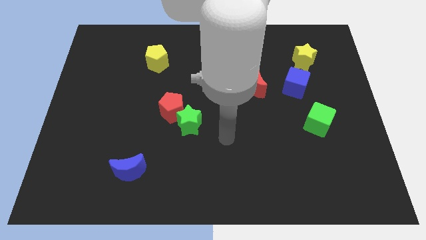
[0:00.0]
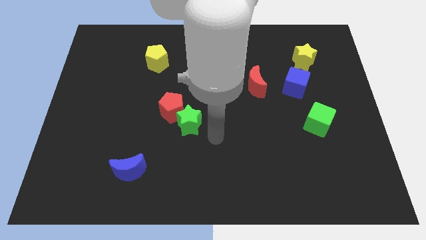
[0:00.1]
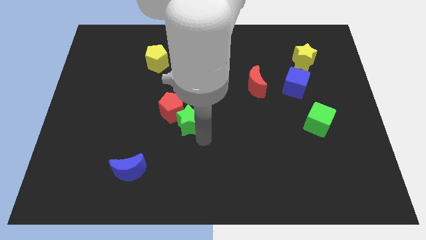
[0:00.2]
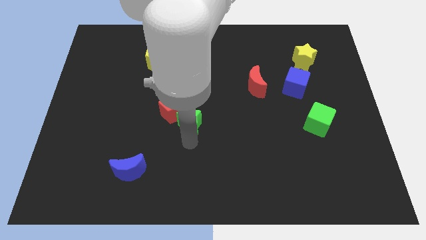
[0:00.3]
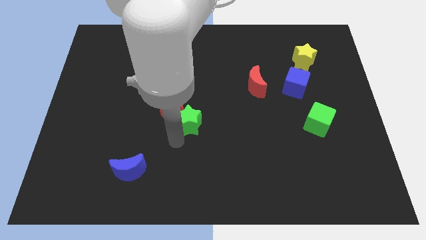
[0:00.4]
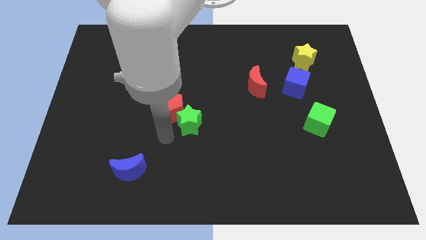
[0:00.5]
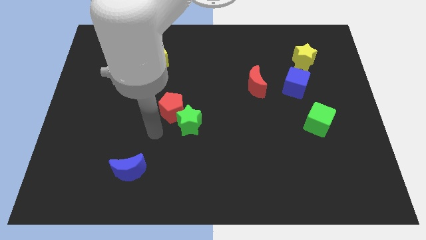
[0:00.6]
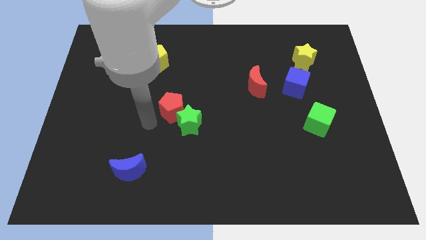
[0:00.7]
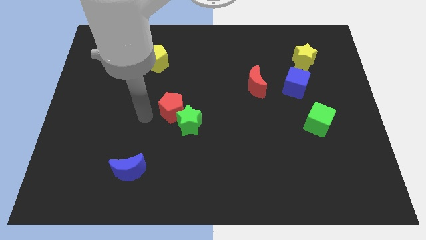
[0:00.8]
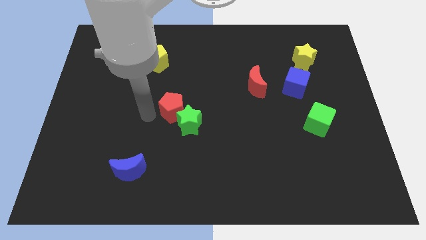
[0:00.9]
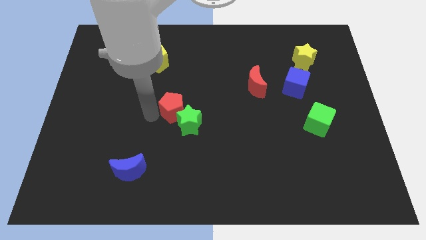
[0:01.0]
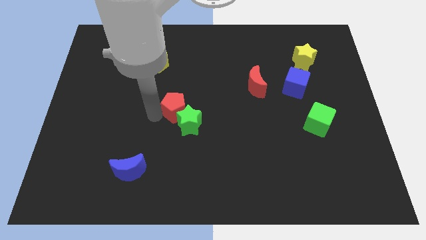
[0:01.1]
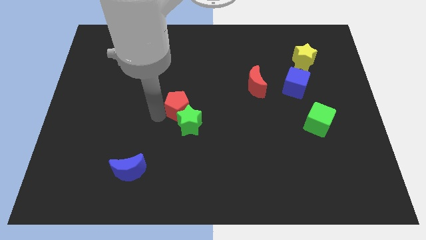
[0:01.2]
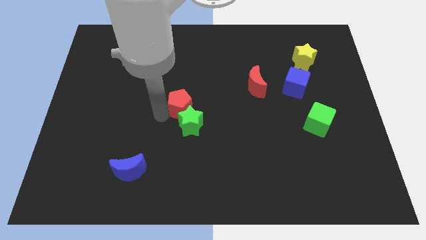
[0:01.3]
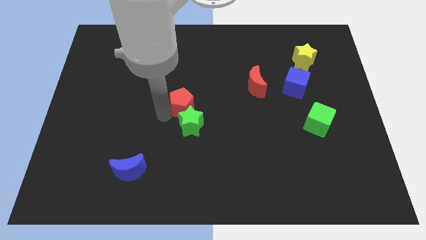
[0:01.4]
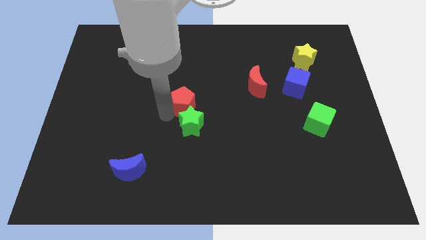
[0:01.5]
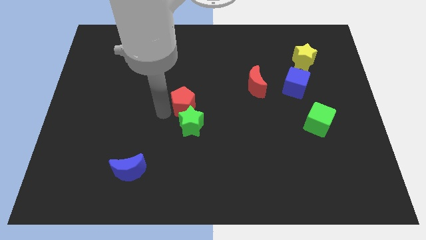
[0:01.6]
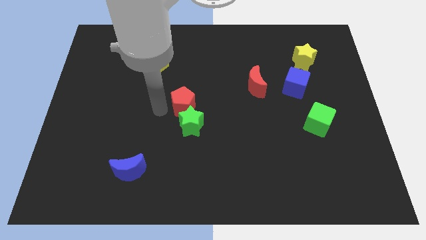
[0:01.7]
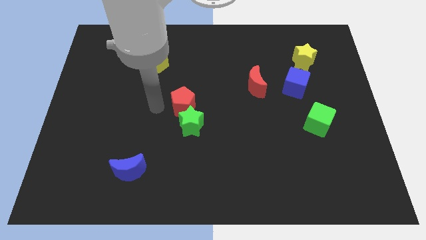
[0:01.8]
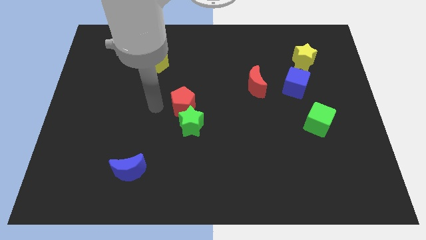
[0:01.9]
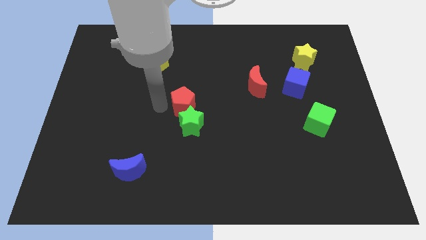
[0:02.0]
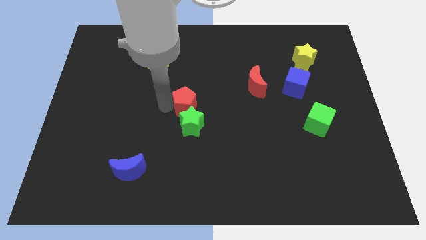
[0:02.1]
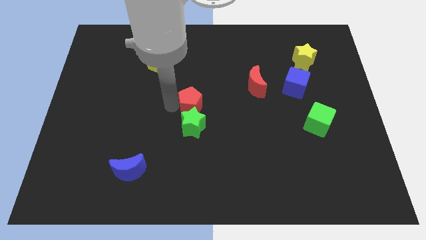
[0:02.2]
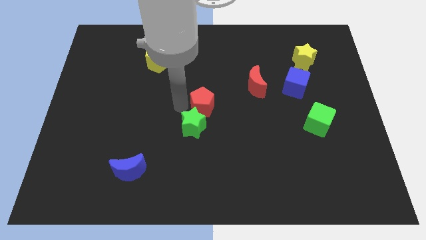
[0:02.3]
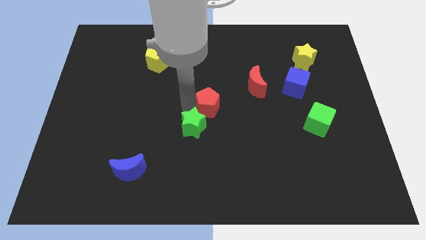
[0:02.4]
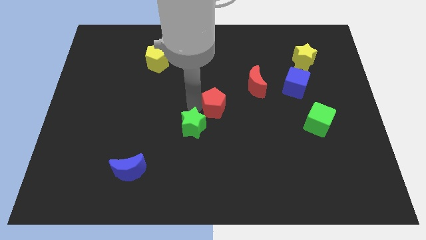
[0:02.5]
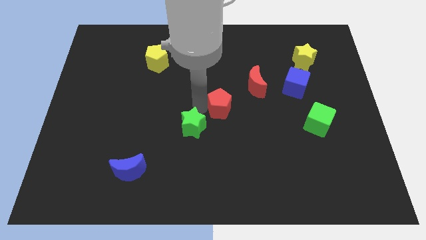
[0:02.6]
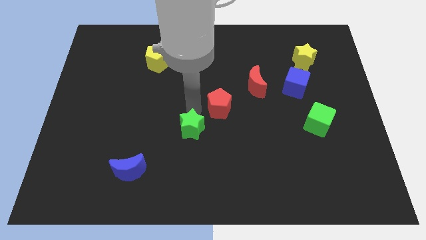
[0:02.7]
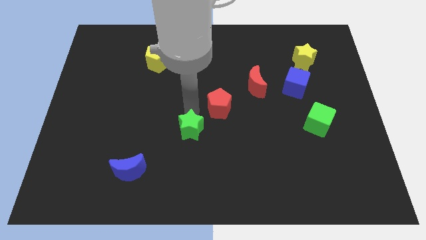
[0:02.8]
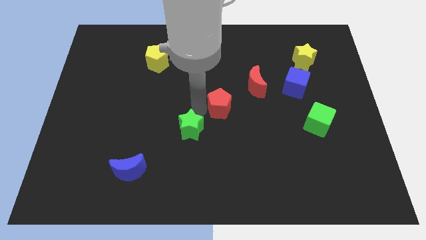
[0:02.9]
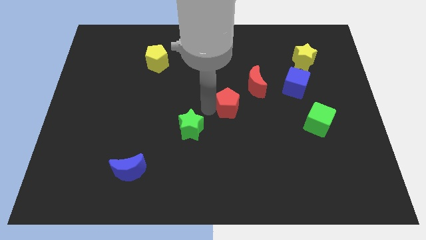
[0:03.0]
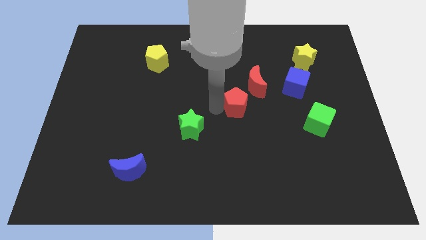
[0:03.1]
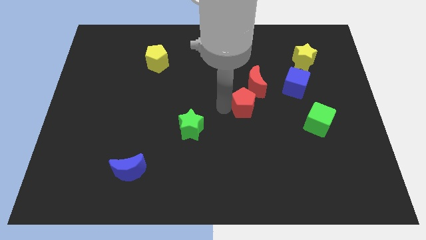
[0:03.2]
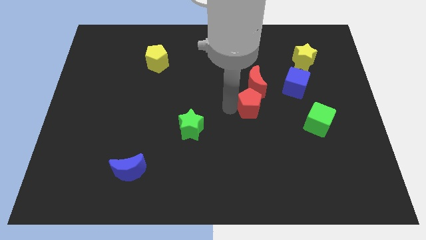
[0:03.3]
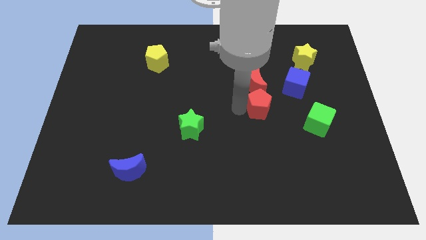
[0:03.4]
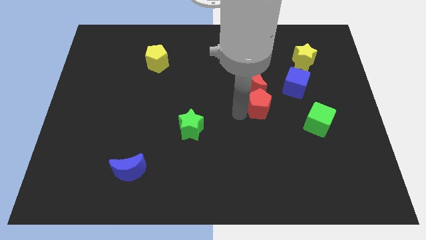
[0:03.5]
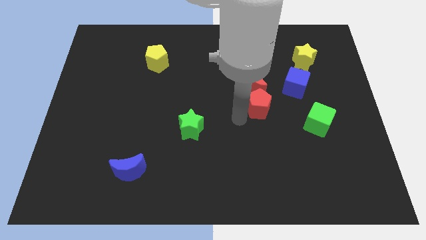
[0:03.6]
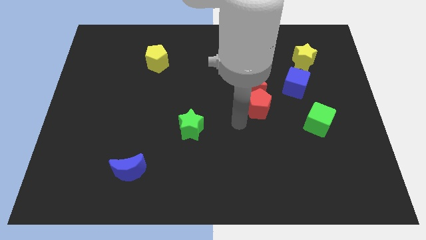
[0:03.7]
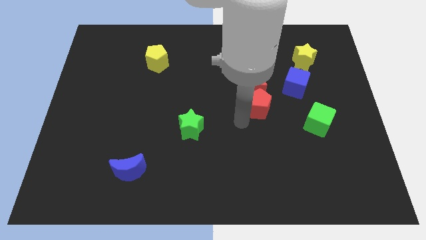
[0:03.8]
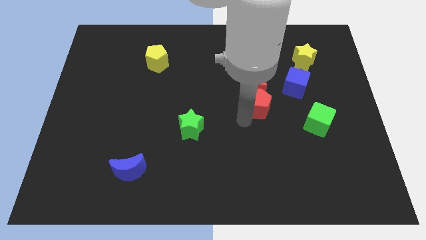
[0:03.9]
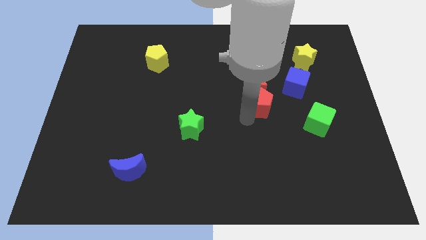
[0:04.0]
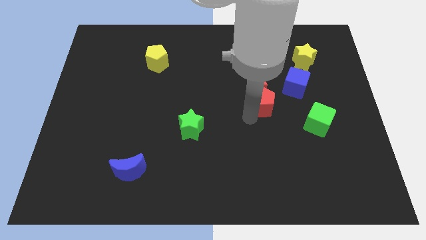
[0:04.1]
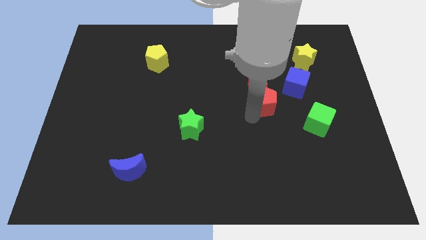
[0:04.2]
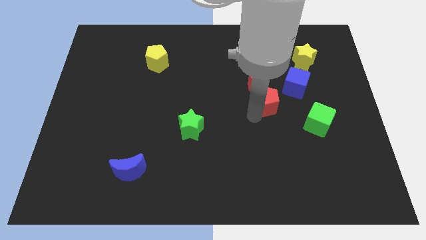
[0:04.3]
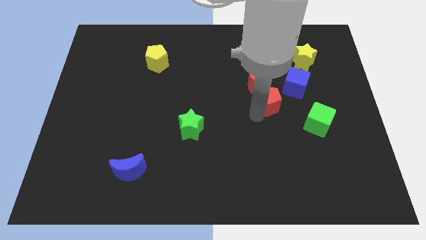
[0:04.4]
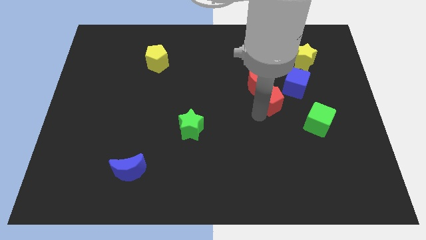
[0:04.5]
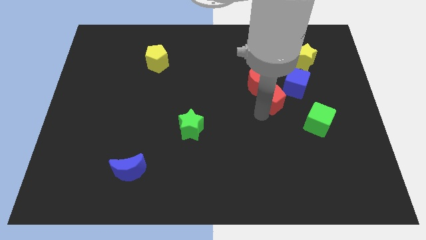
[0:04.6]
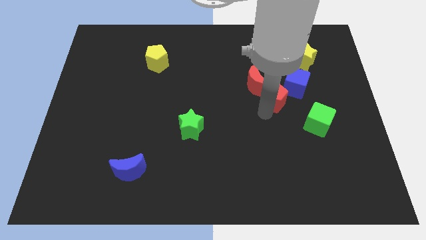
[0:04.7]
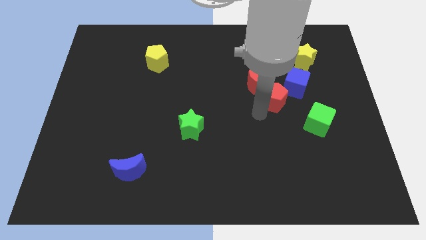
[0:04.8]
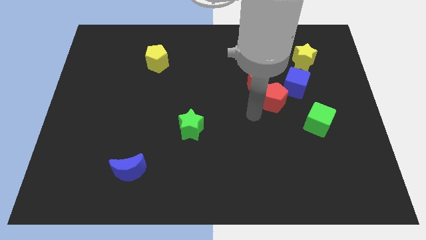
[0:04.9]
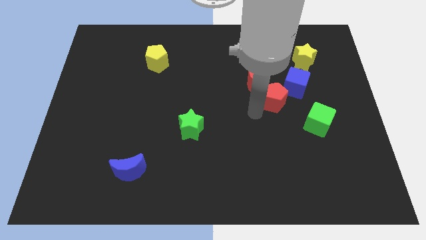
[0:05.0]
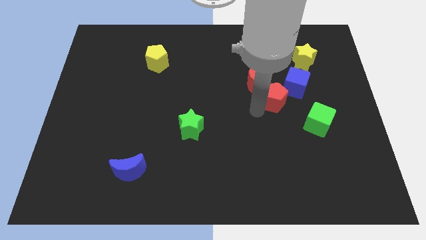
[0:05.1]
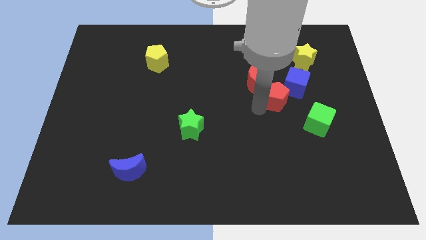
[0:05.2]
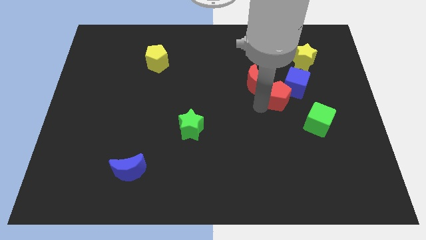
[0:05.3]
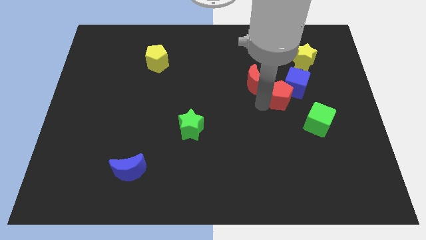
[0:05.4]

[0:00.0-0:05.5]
move the red pentagon close to the blue cube

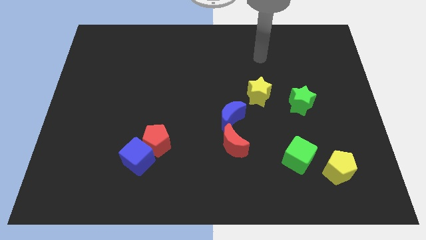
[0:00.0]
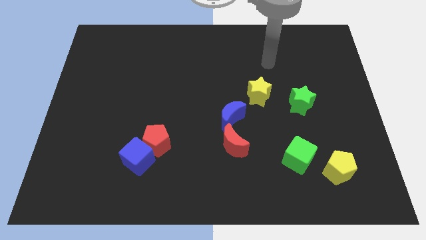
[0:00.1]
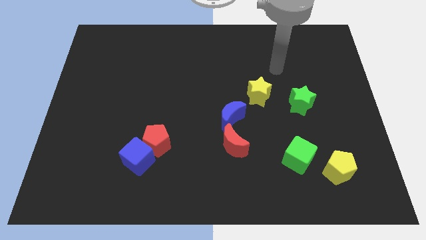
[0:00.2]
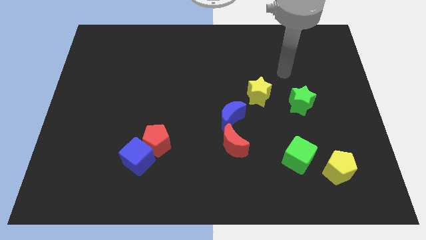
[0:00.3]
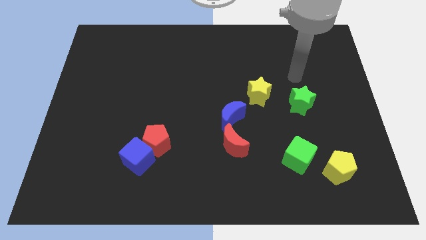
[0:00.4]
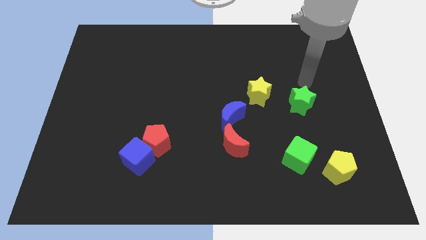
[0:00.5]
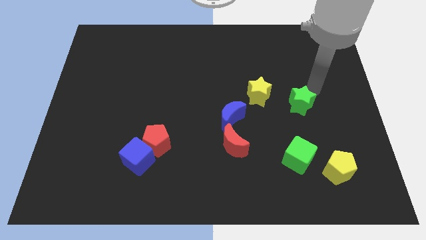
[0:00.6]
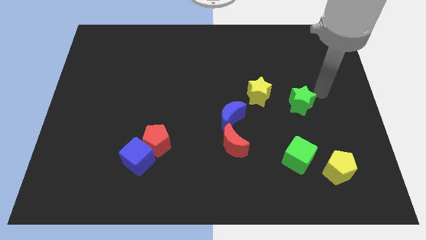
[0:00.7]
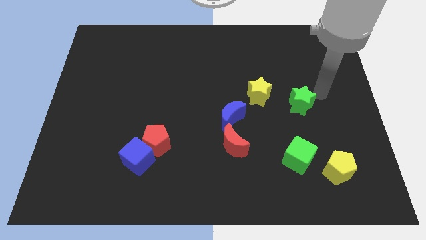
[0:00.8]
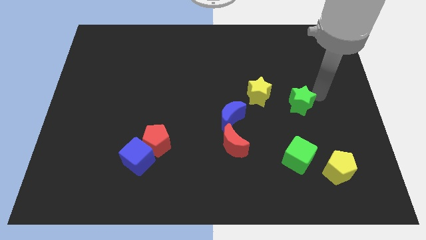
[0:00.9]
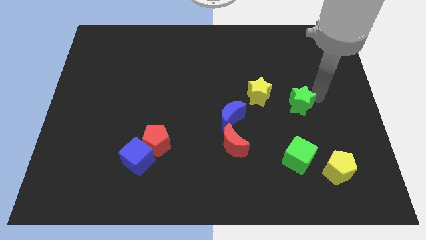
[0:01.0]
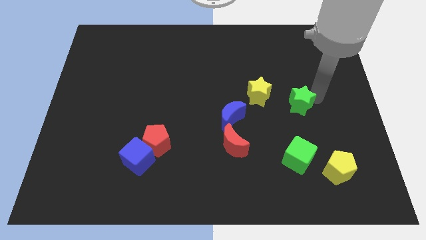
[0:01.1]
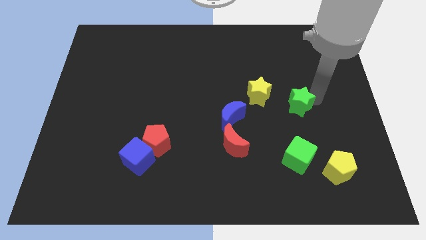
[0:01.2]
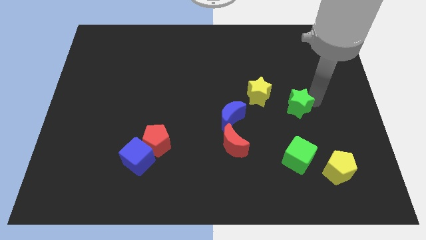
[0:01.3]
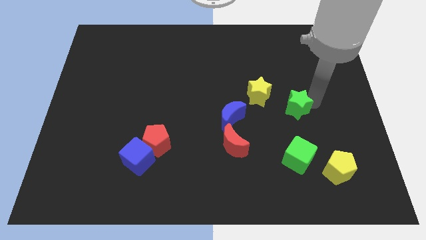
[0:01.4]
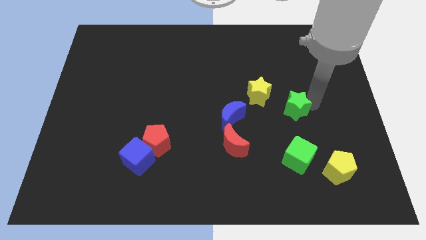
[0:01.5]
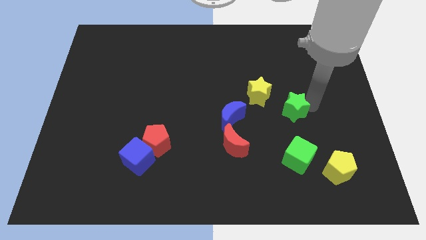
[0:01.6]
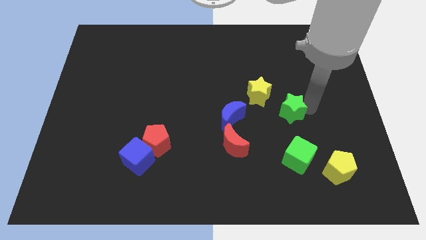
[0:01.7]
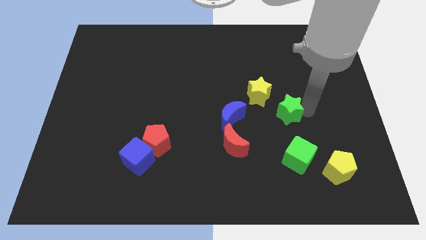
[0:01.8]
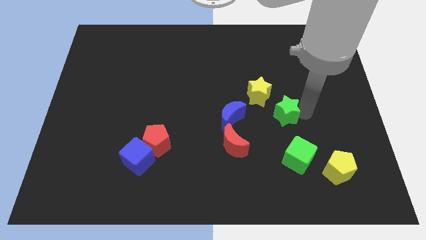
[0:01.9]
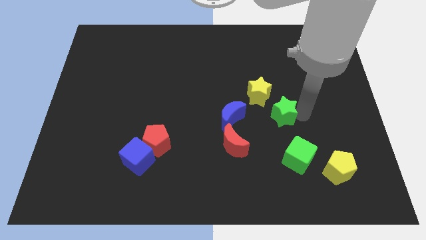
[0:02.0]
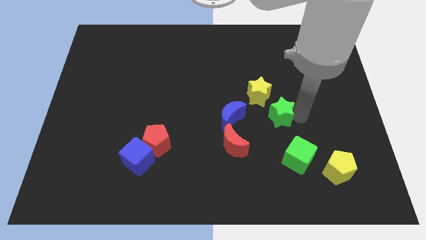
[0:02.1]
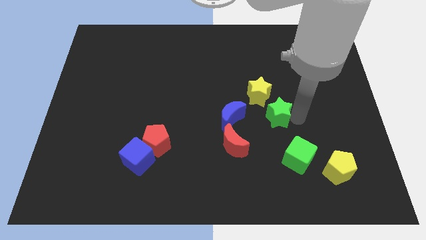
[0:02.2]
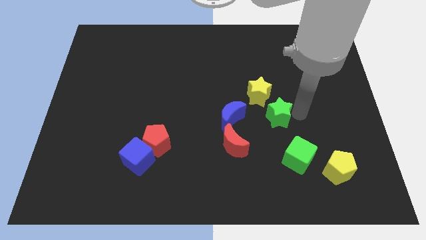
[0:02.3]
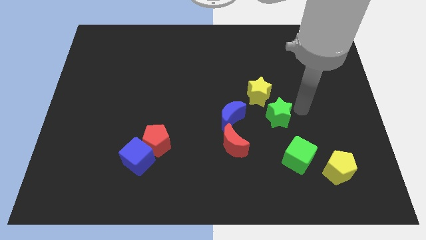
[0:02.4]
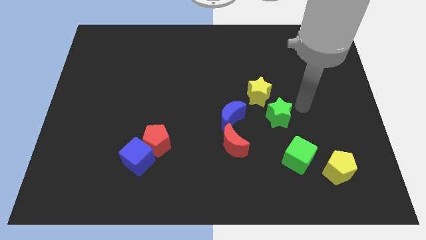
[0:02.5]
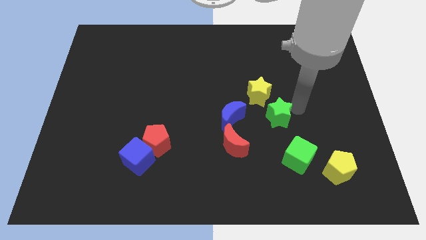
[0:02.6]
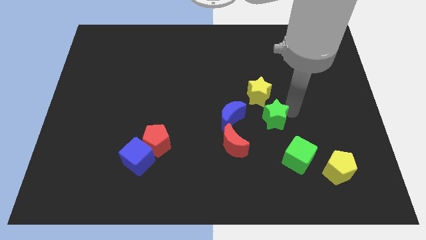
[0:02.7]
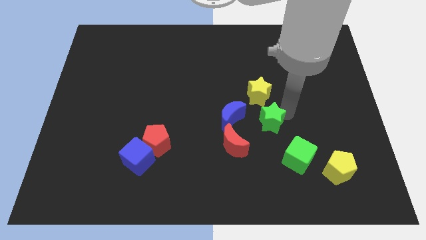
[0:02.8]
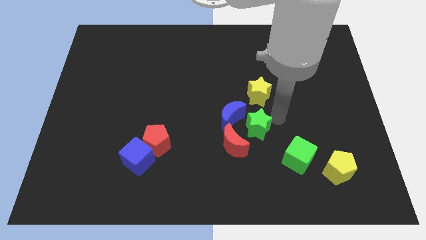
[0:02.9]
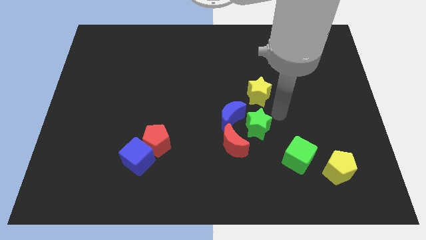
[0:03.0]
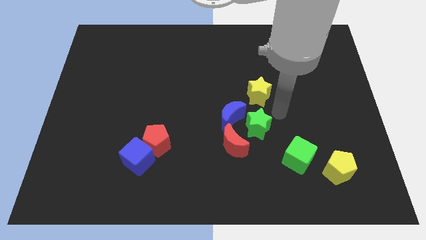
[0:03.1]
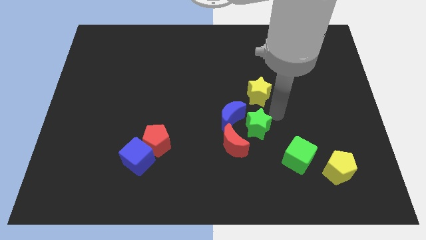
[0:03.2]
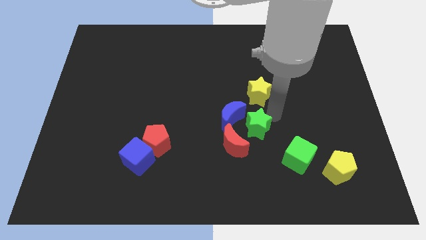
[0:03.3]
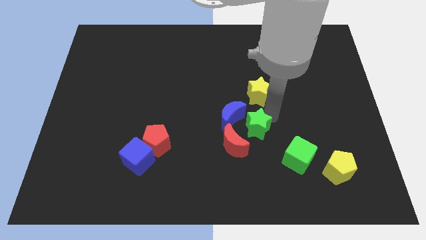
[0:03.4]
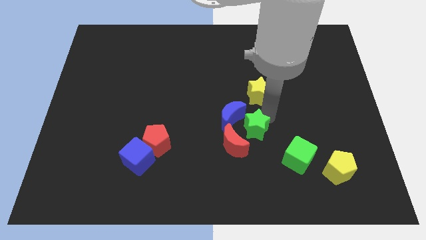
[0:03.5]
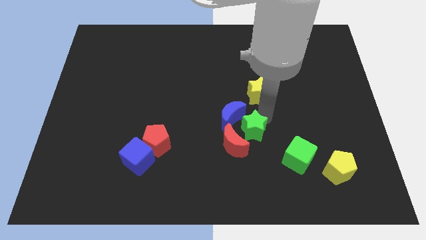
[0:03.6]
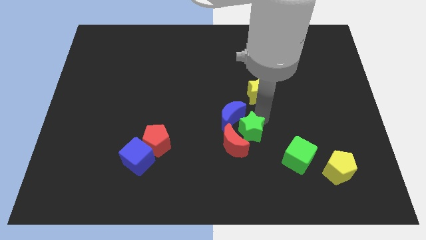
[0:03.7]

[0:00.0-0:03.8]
put the green star next to the red moon
